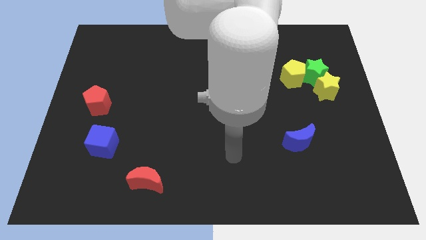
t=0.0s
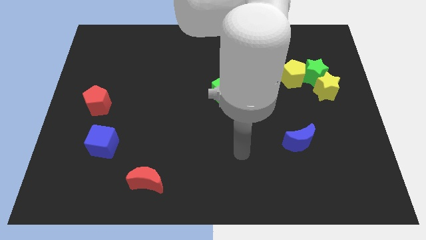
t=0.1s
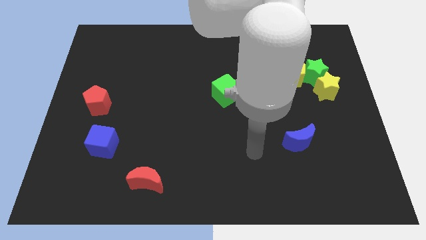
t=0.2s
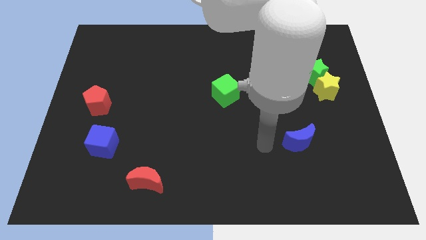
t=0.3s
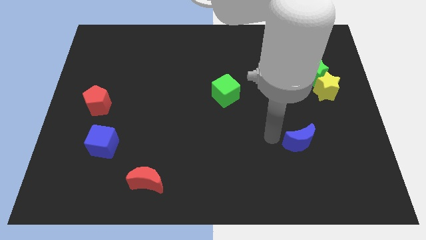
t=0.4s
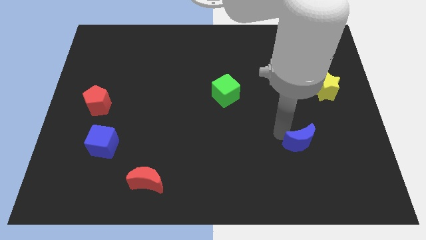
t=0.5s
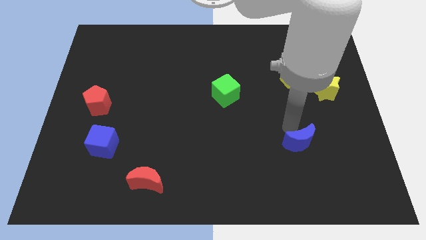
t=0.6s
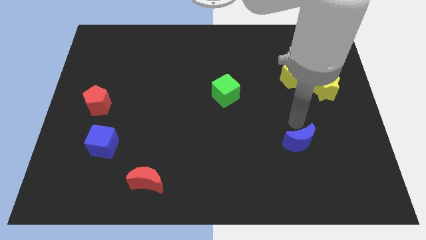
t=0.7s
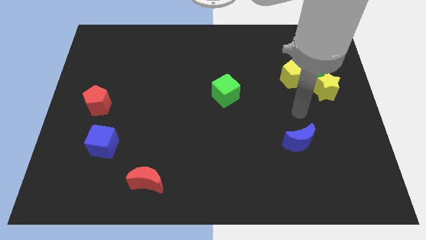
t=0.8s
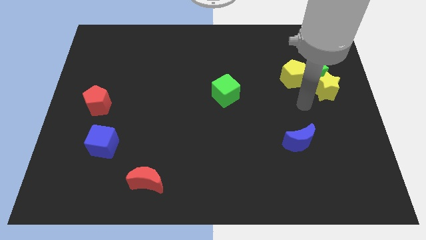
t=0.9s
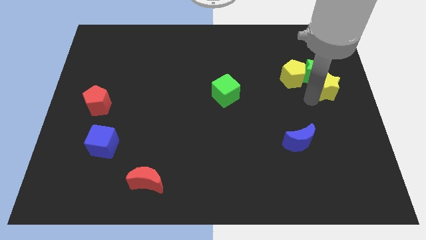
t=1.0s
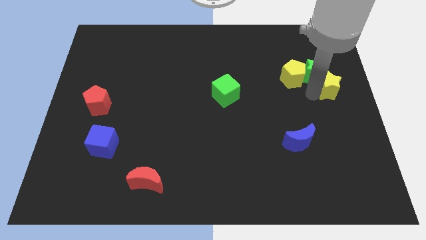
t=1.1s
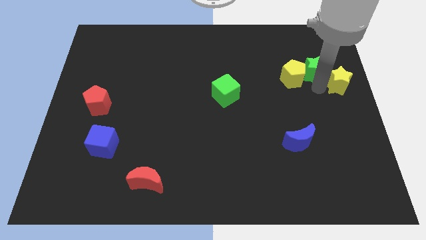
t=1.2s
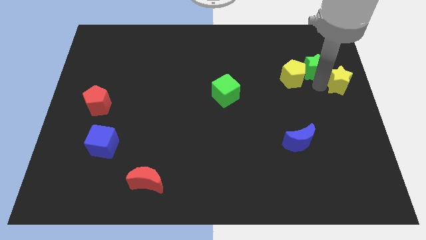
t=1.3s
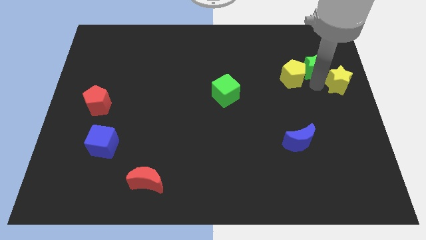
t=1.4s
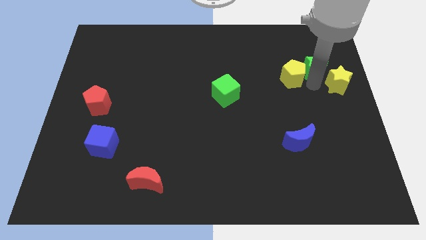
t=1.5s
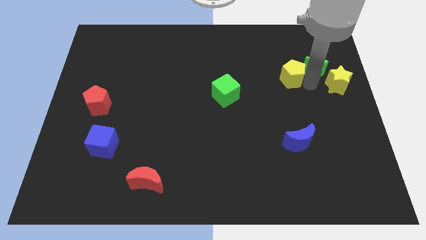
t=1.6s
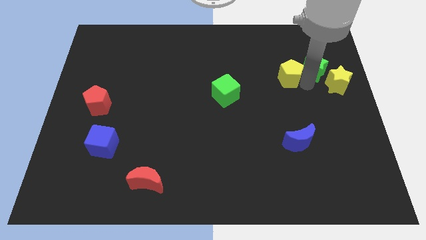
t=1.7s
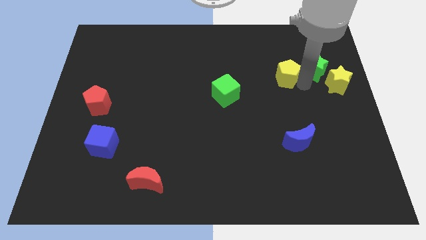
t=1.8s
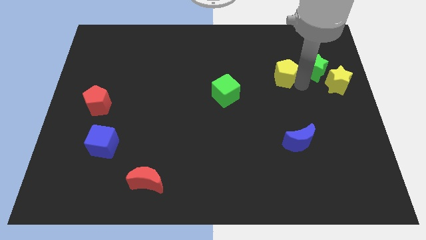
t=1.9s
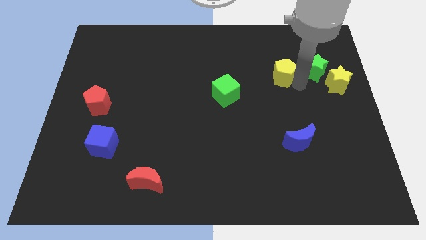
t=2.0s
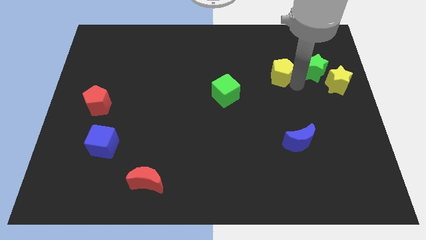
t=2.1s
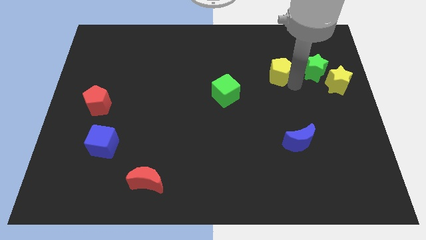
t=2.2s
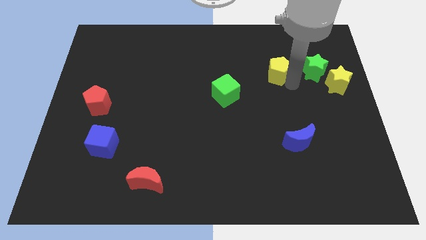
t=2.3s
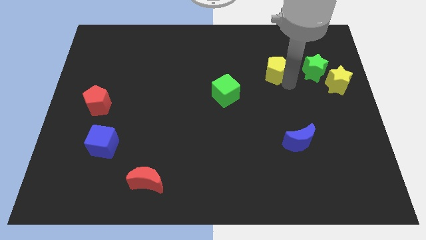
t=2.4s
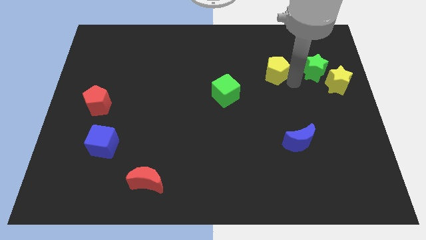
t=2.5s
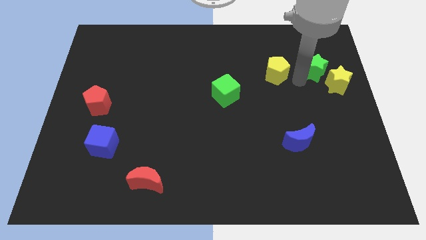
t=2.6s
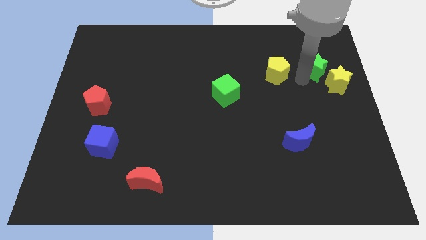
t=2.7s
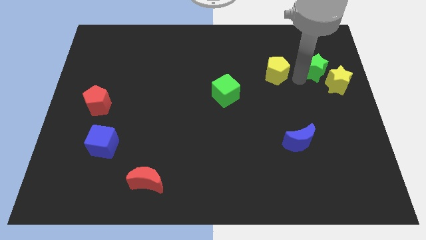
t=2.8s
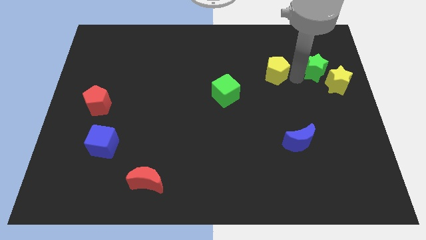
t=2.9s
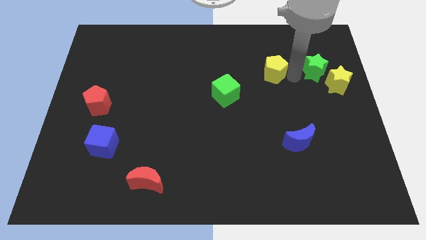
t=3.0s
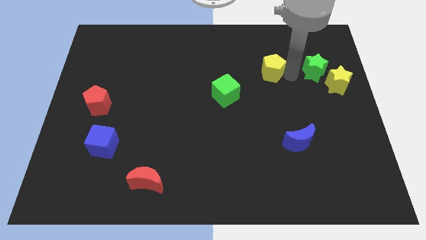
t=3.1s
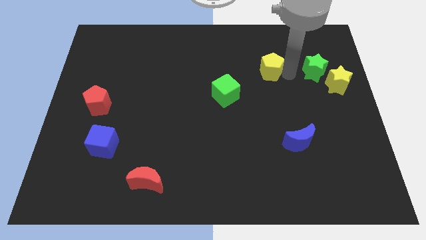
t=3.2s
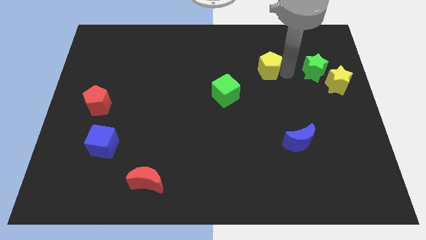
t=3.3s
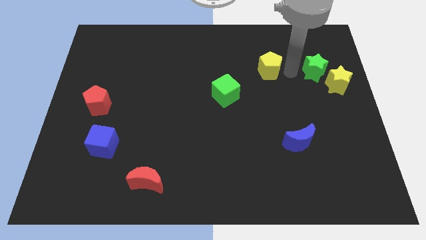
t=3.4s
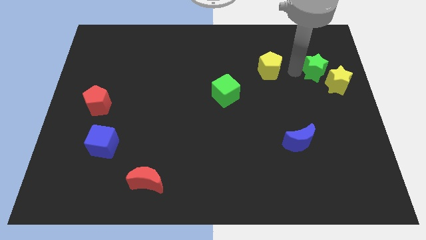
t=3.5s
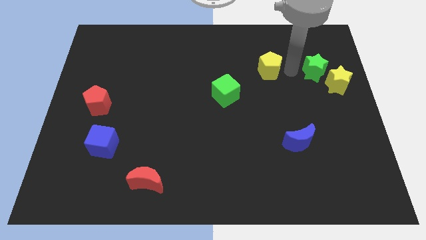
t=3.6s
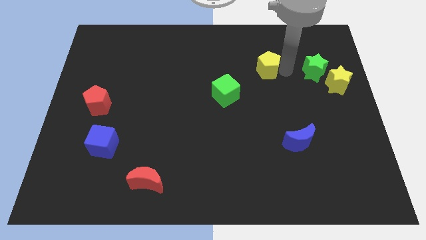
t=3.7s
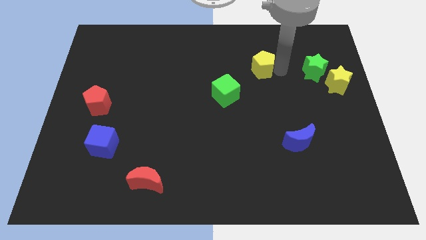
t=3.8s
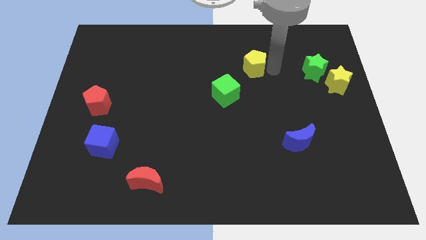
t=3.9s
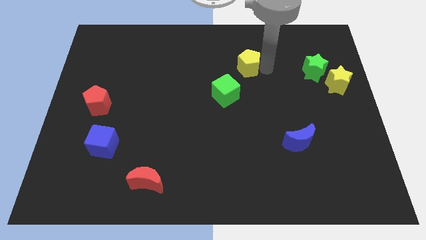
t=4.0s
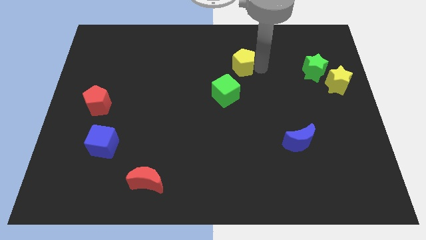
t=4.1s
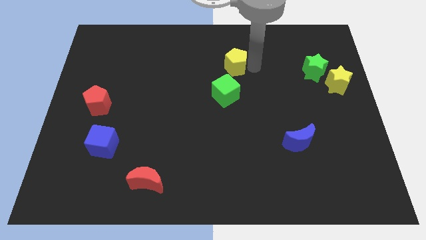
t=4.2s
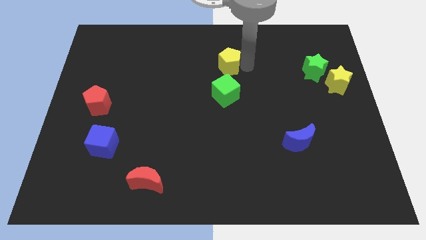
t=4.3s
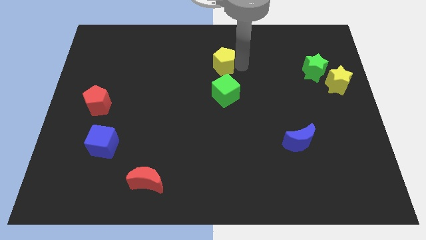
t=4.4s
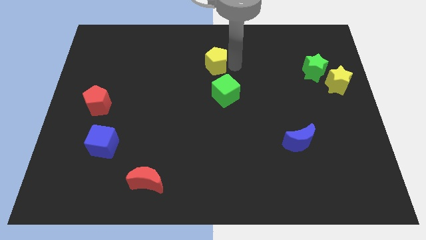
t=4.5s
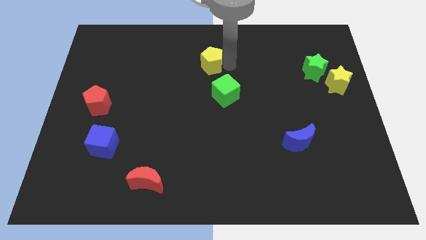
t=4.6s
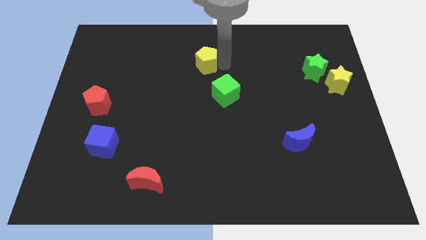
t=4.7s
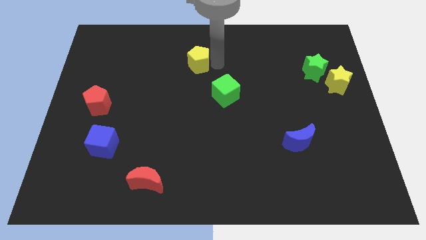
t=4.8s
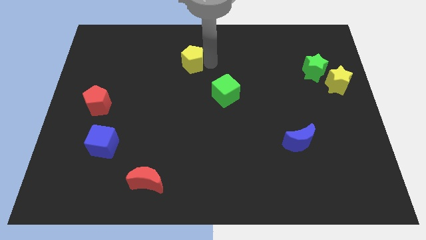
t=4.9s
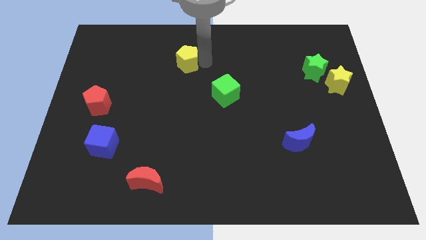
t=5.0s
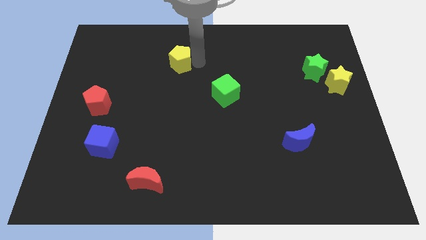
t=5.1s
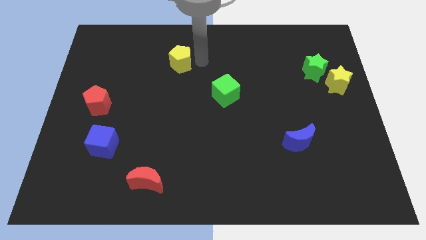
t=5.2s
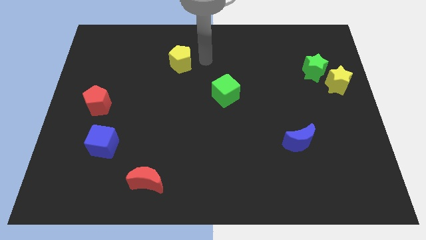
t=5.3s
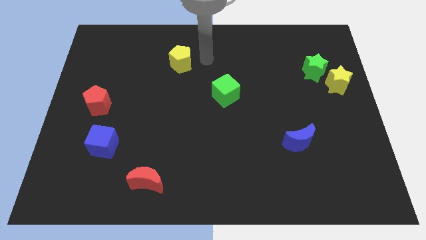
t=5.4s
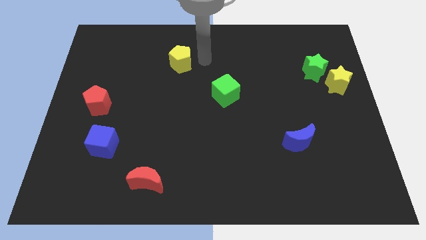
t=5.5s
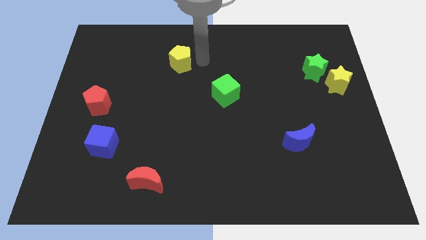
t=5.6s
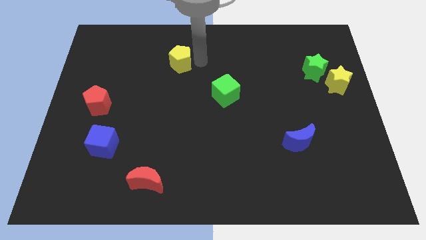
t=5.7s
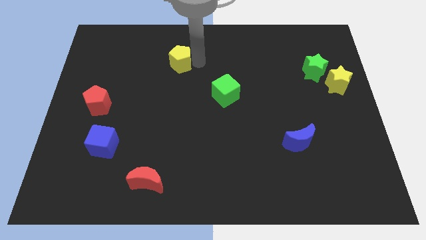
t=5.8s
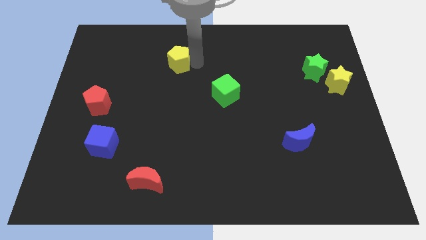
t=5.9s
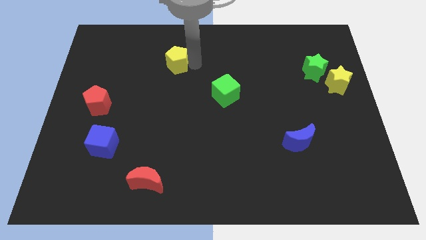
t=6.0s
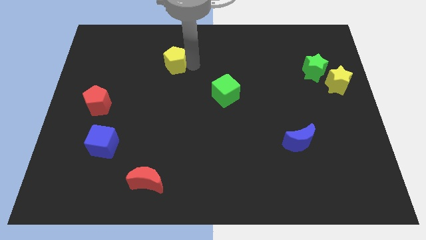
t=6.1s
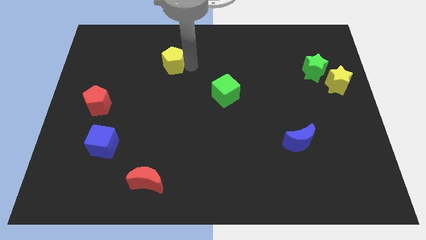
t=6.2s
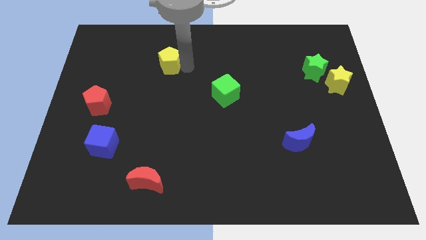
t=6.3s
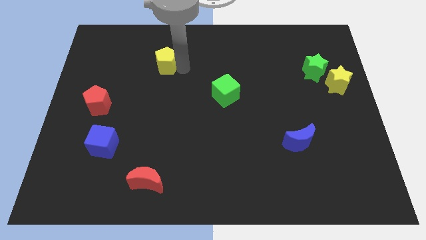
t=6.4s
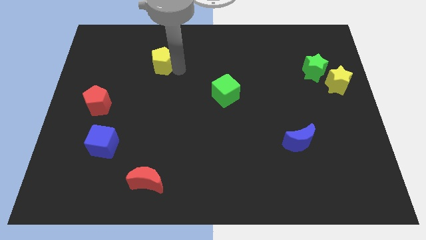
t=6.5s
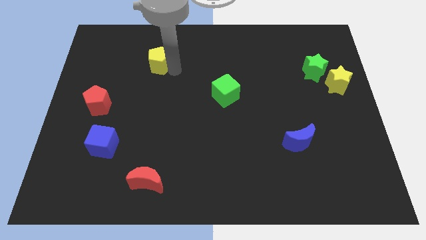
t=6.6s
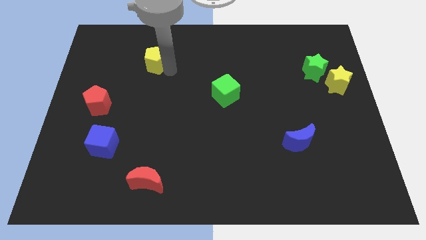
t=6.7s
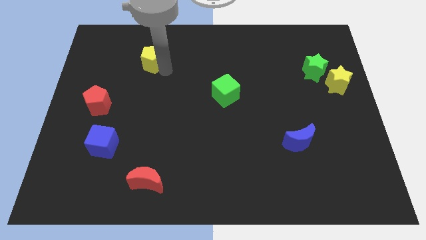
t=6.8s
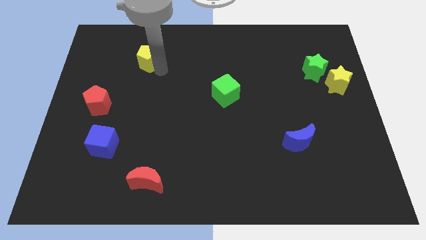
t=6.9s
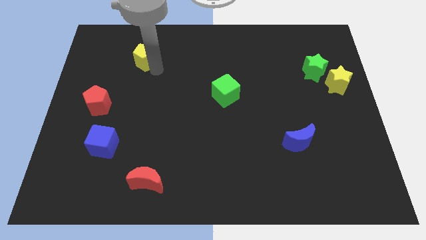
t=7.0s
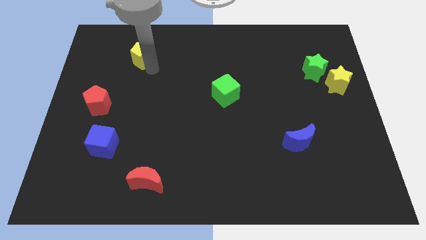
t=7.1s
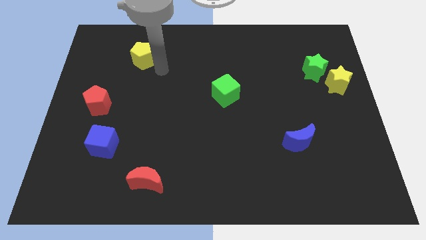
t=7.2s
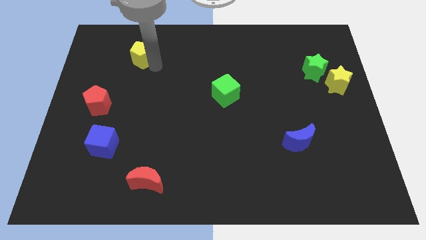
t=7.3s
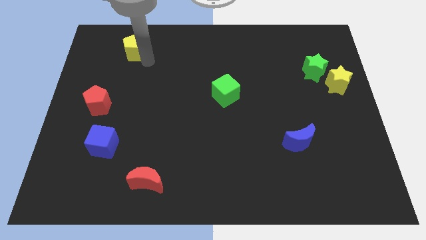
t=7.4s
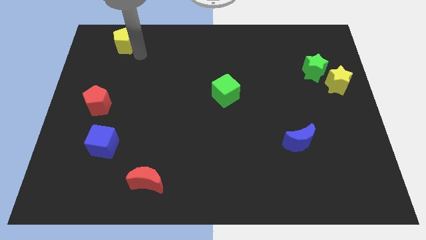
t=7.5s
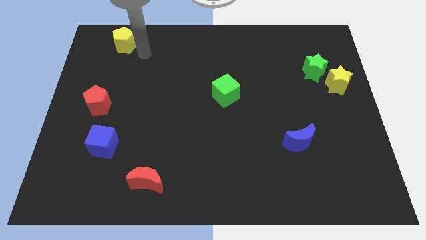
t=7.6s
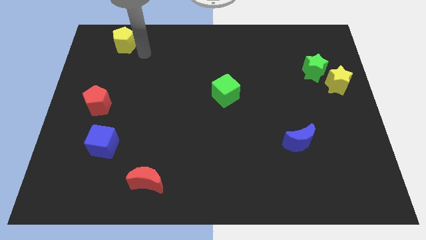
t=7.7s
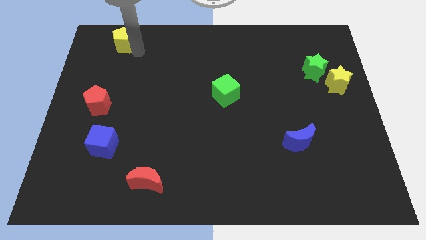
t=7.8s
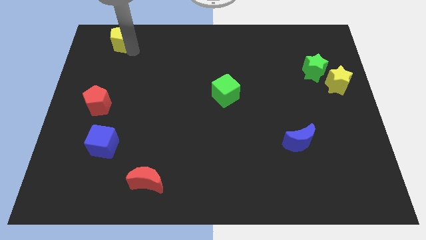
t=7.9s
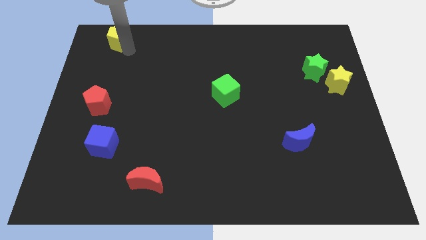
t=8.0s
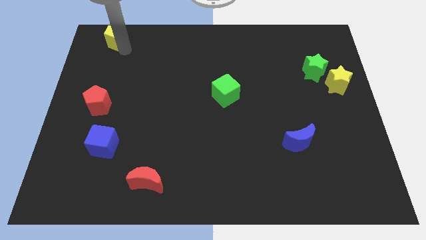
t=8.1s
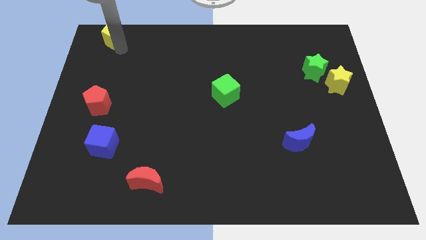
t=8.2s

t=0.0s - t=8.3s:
move the yellow pentagon to the top left corner
